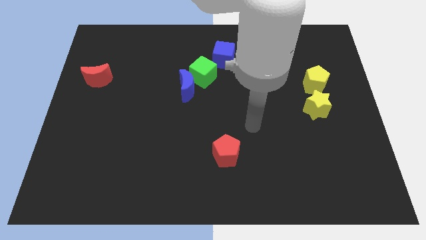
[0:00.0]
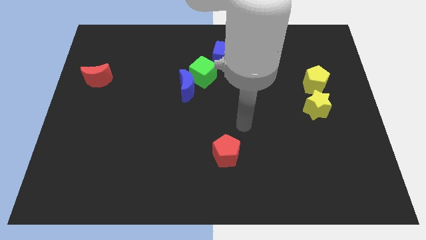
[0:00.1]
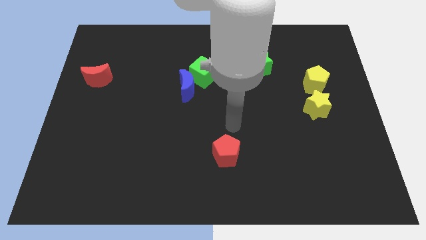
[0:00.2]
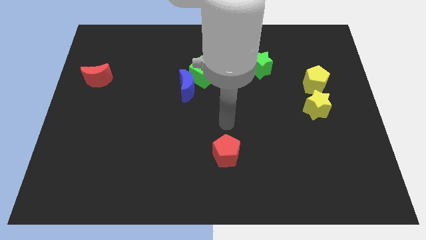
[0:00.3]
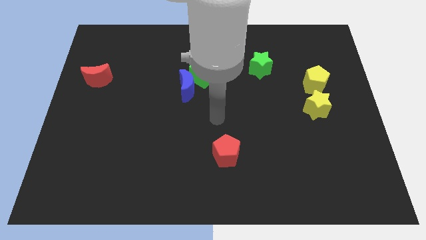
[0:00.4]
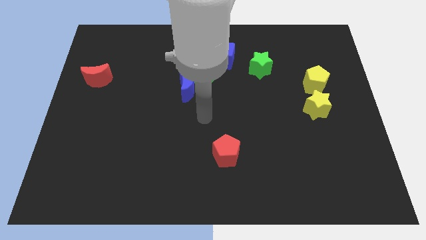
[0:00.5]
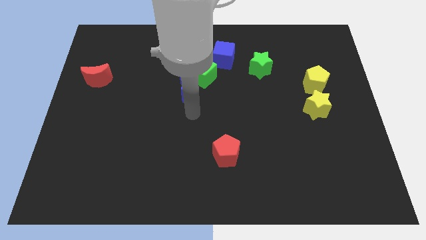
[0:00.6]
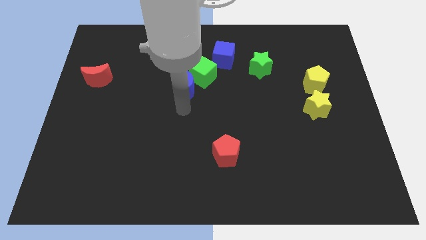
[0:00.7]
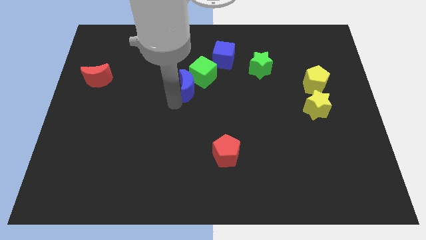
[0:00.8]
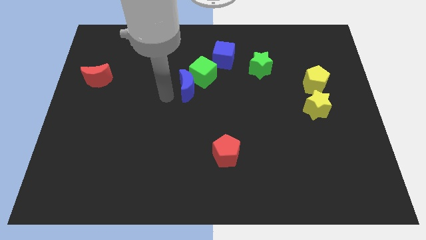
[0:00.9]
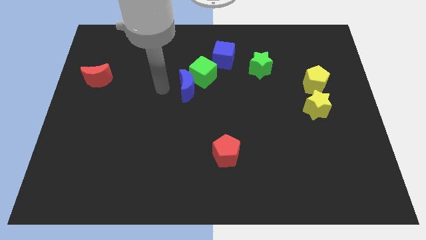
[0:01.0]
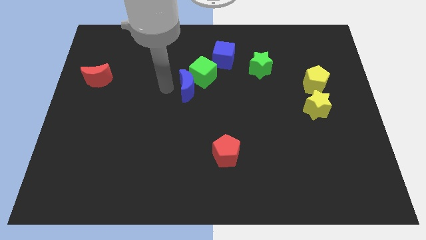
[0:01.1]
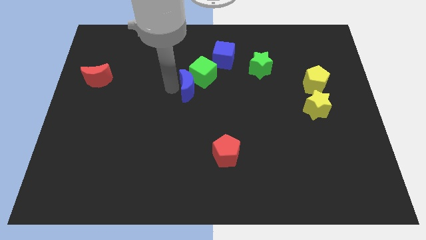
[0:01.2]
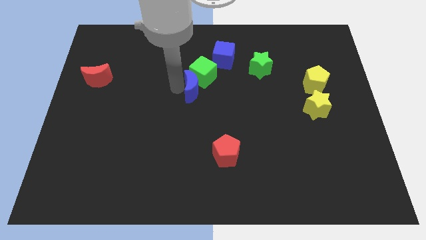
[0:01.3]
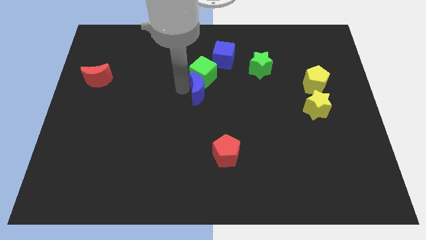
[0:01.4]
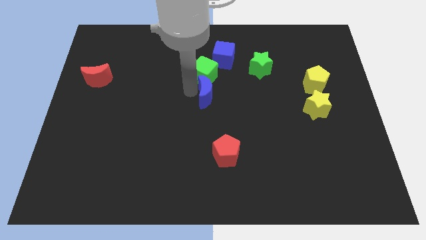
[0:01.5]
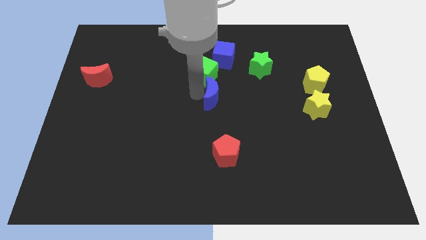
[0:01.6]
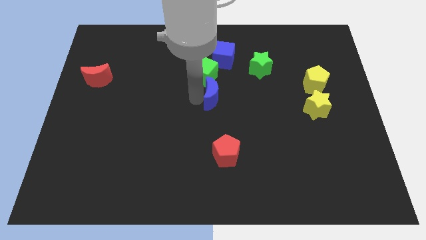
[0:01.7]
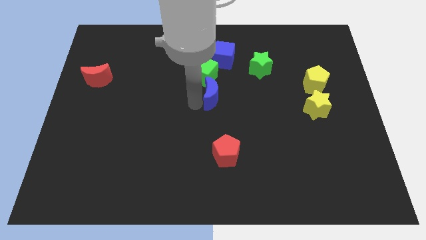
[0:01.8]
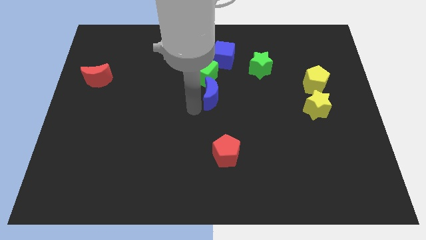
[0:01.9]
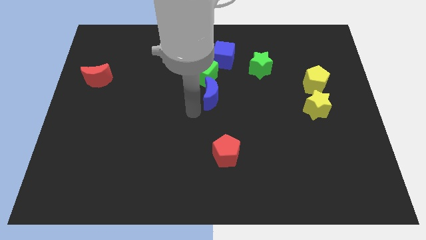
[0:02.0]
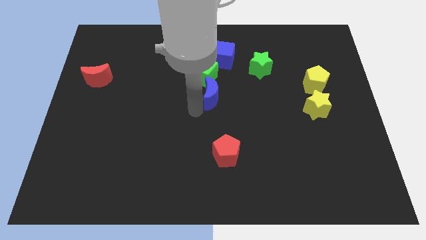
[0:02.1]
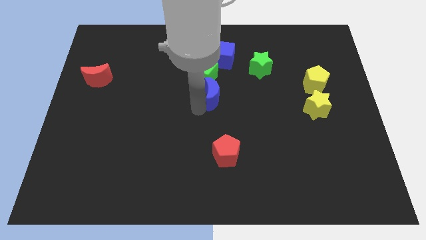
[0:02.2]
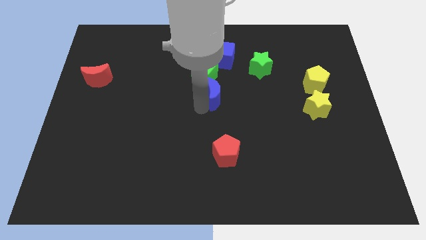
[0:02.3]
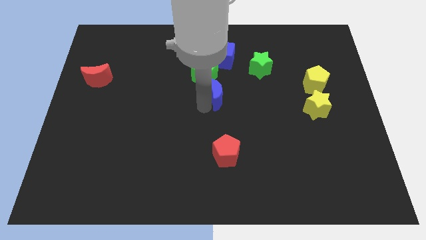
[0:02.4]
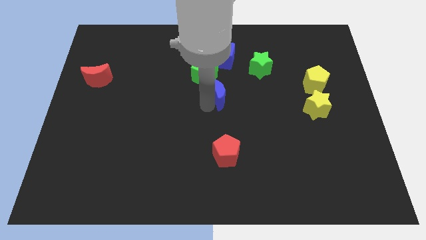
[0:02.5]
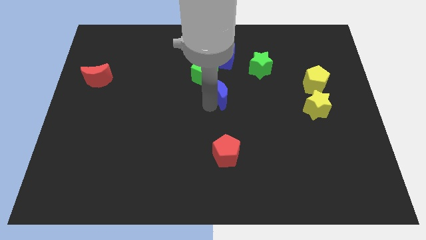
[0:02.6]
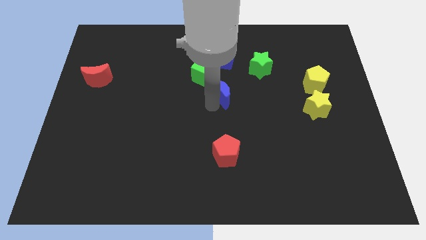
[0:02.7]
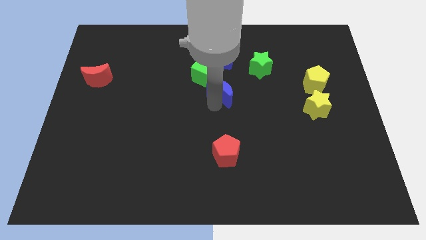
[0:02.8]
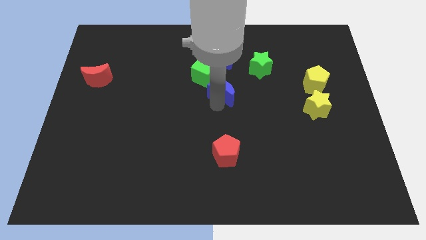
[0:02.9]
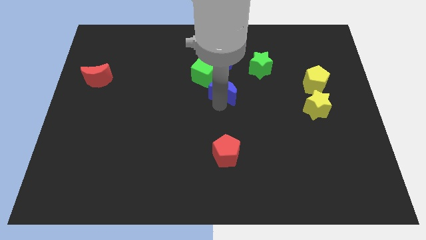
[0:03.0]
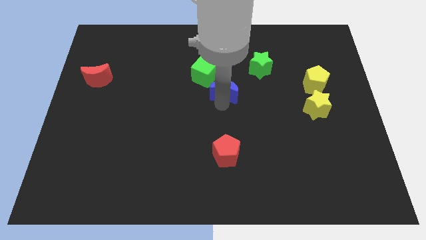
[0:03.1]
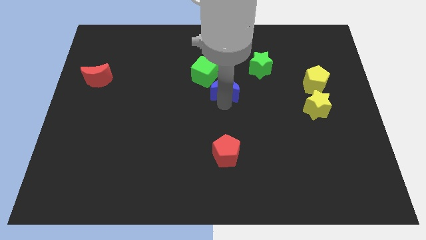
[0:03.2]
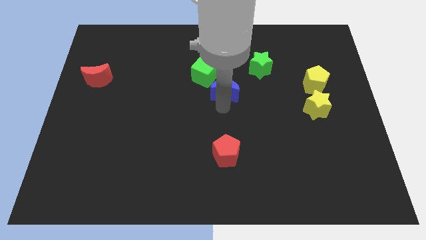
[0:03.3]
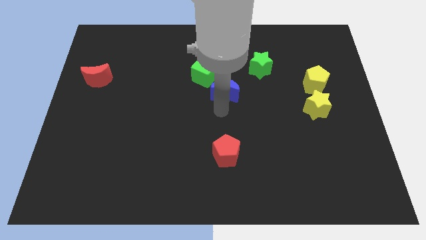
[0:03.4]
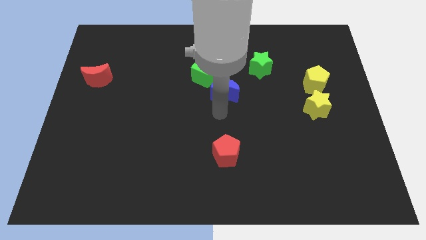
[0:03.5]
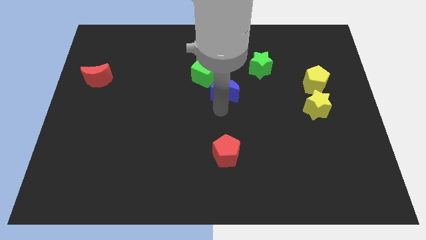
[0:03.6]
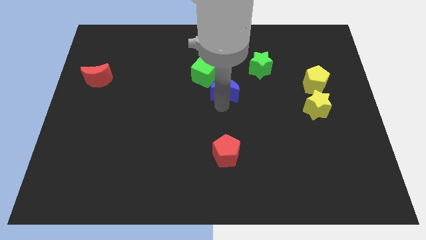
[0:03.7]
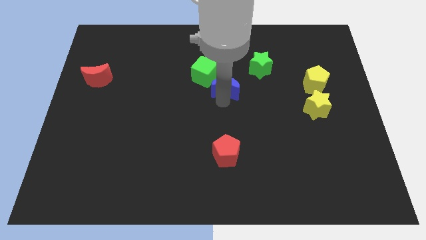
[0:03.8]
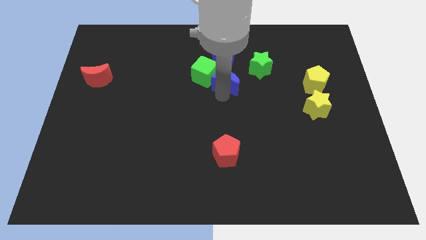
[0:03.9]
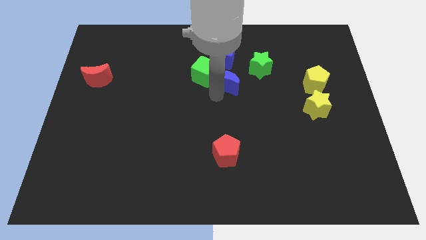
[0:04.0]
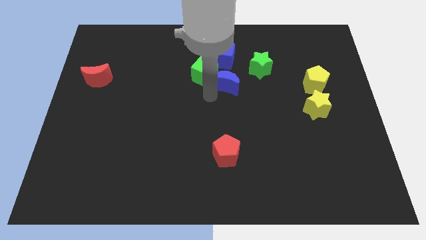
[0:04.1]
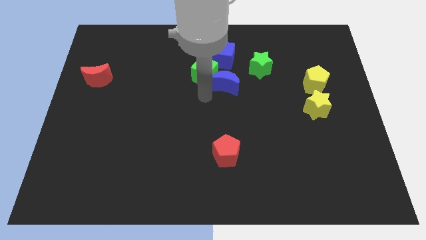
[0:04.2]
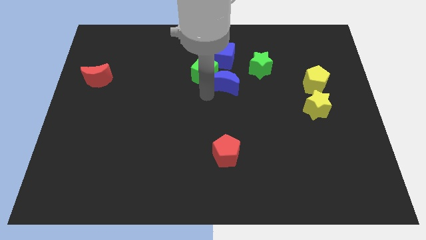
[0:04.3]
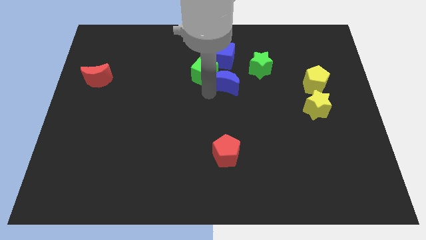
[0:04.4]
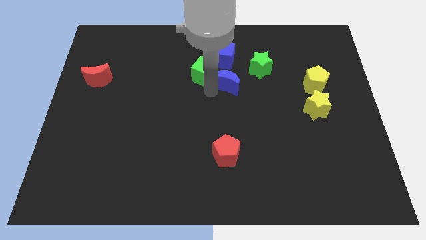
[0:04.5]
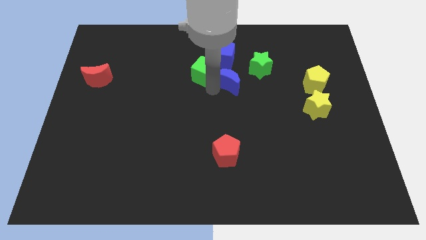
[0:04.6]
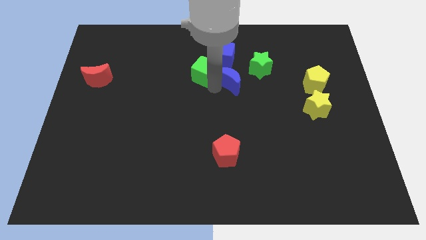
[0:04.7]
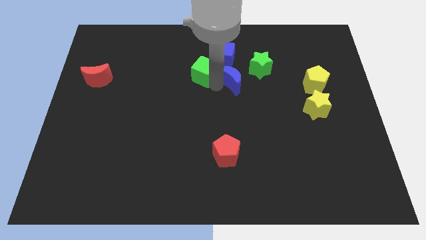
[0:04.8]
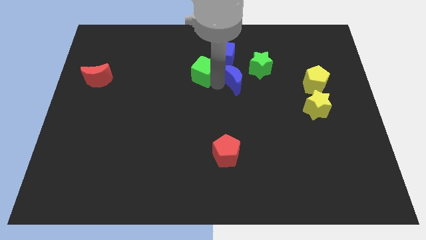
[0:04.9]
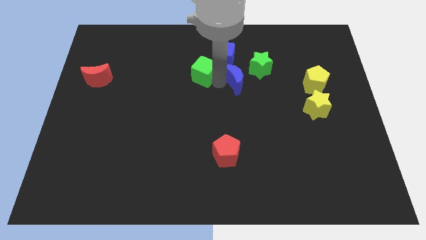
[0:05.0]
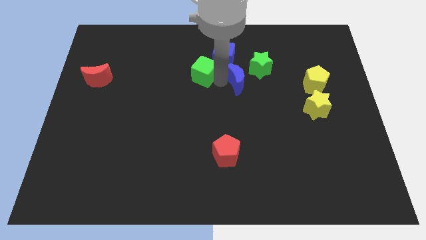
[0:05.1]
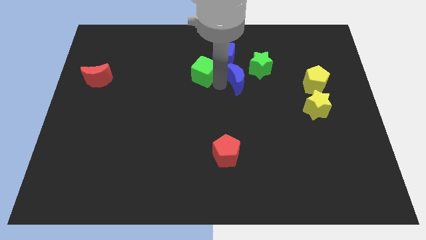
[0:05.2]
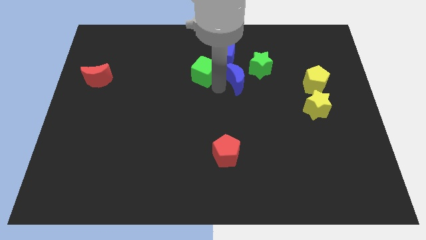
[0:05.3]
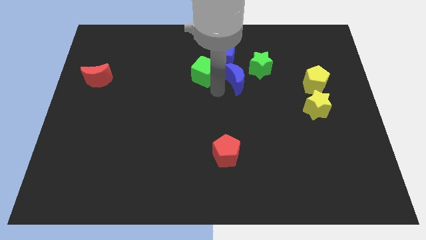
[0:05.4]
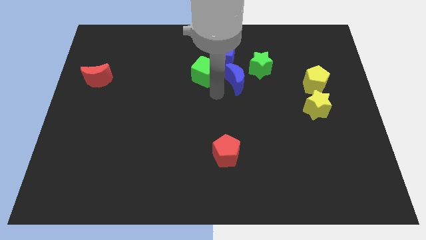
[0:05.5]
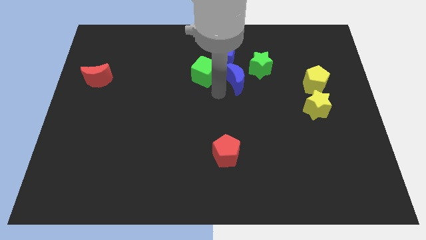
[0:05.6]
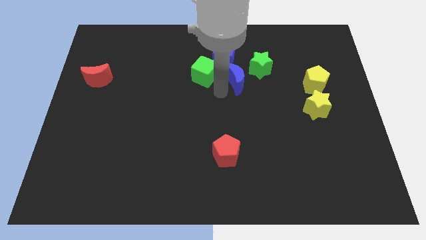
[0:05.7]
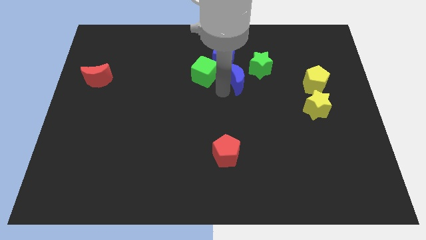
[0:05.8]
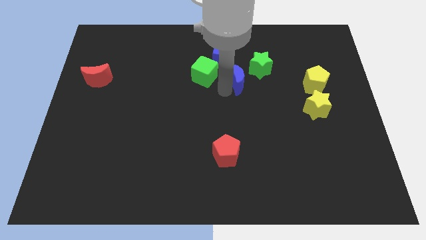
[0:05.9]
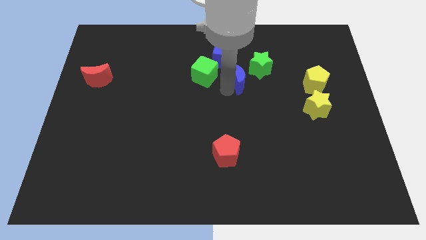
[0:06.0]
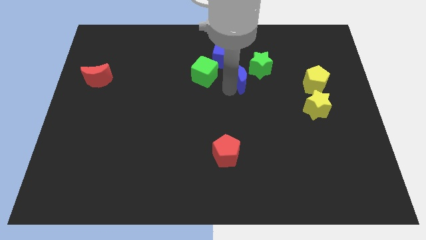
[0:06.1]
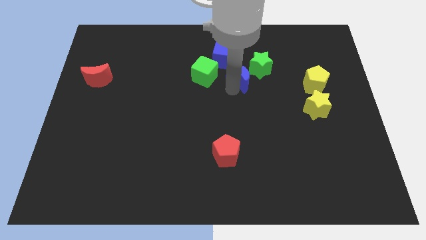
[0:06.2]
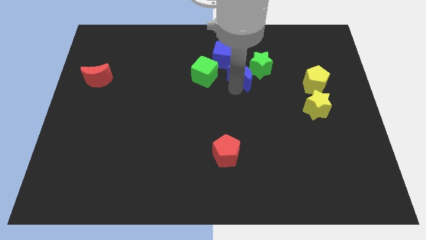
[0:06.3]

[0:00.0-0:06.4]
put the blue moon towards the green star

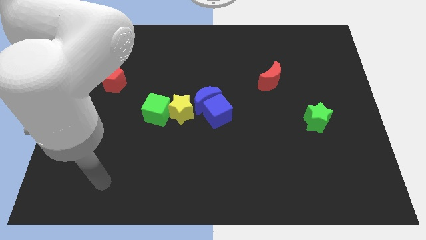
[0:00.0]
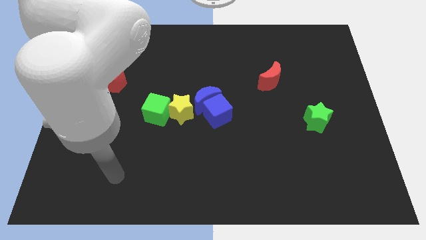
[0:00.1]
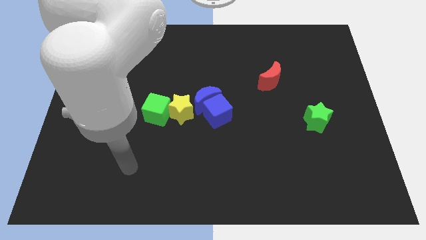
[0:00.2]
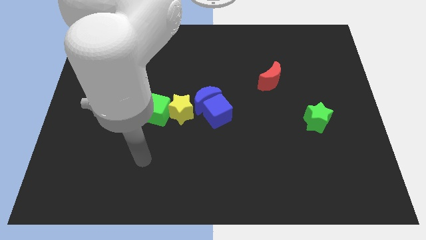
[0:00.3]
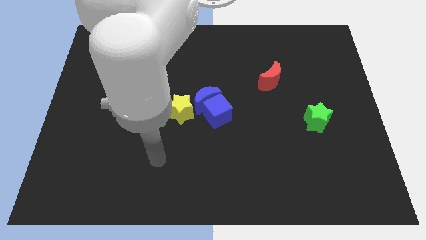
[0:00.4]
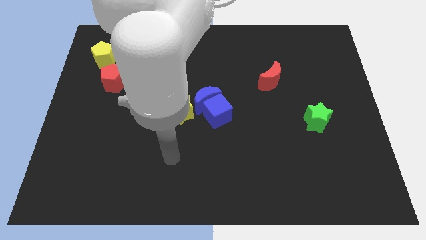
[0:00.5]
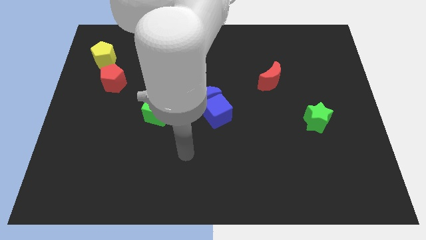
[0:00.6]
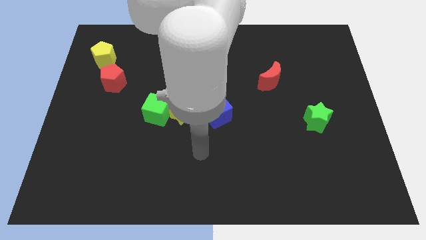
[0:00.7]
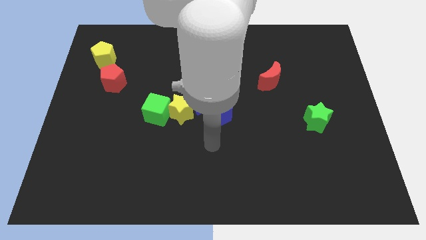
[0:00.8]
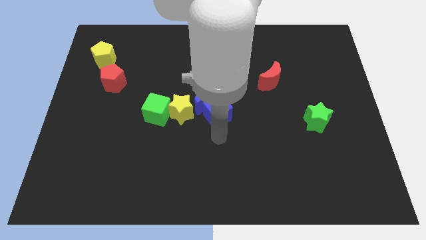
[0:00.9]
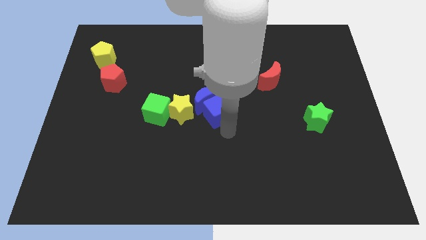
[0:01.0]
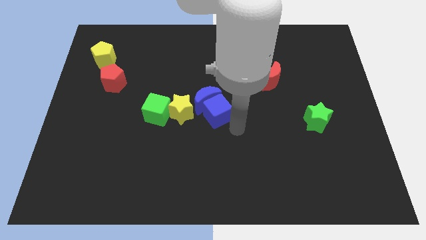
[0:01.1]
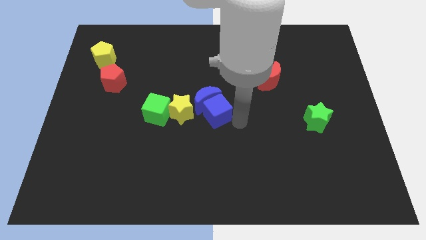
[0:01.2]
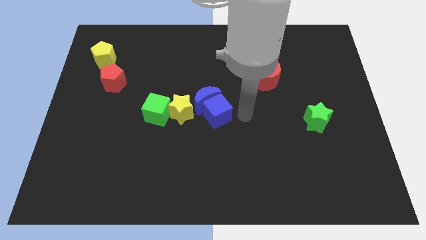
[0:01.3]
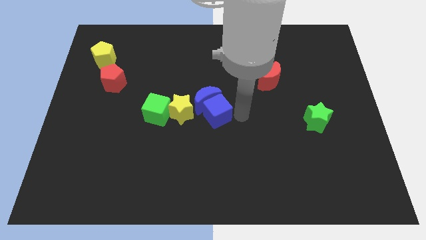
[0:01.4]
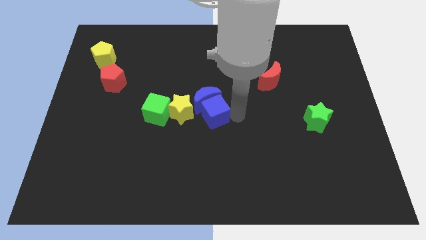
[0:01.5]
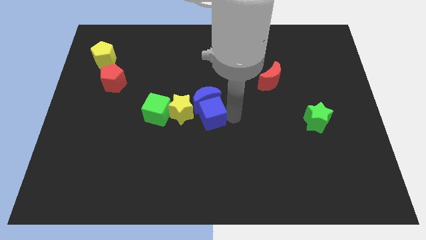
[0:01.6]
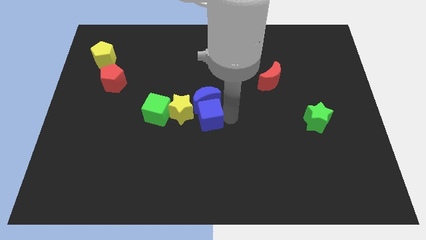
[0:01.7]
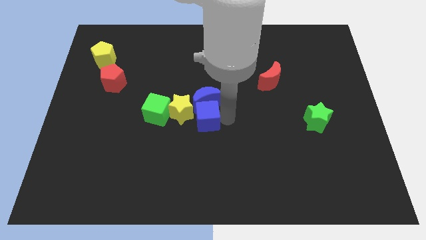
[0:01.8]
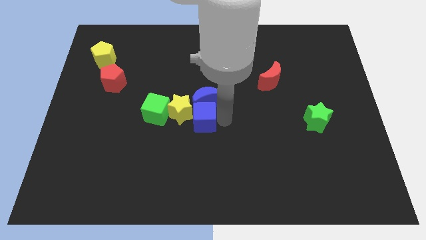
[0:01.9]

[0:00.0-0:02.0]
put the blue cube close to the yellow star
